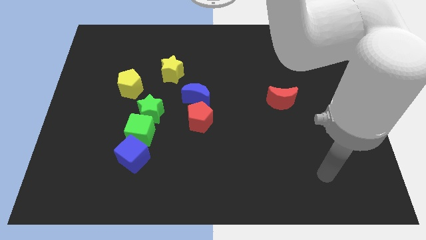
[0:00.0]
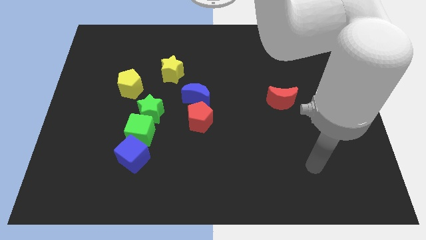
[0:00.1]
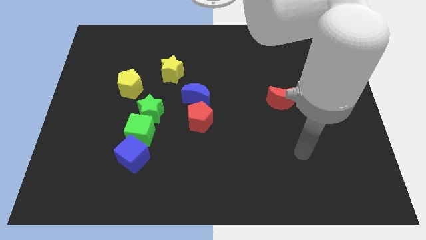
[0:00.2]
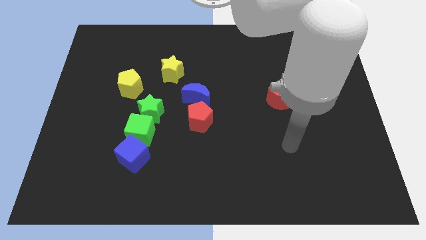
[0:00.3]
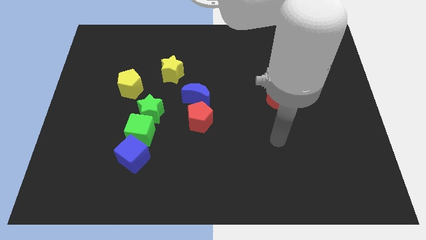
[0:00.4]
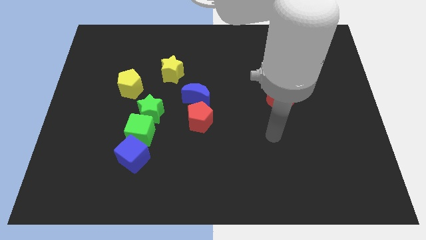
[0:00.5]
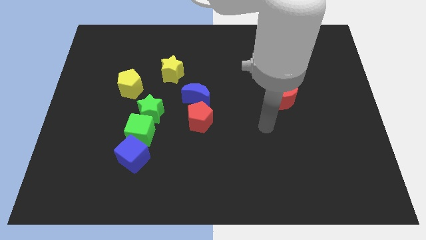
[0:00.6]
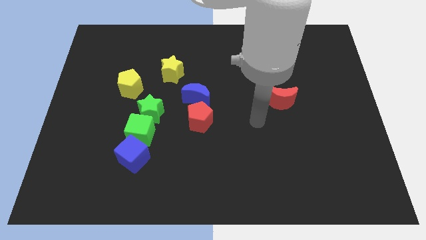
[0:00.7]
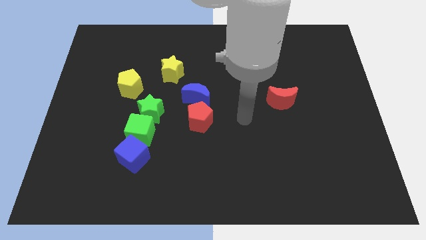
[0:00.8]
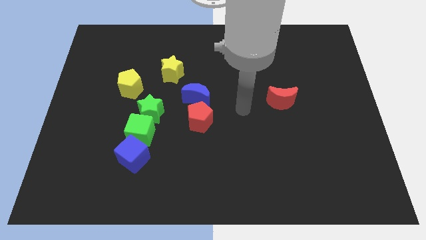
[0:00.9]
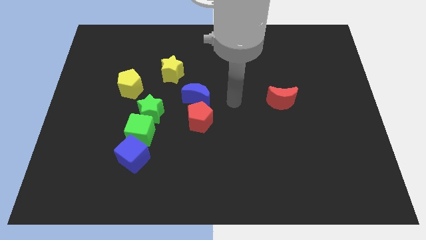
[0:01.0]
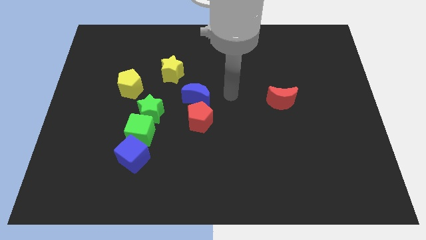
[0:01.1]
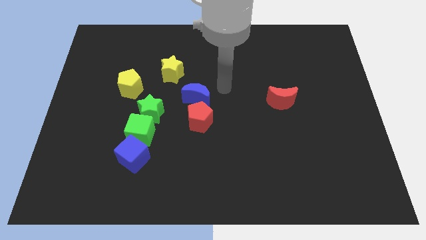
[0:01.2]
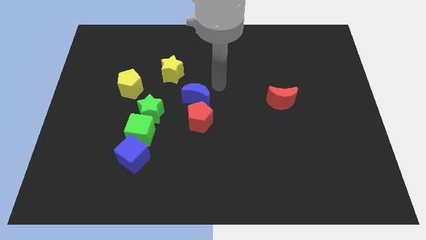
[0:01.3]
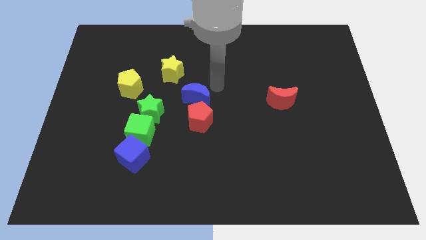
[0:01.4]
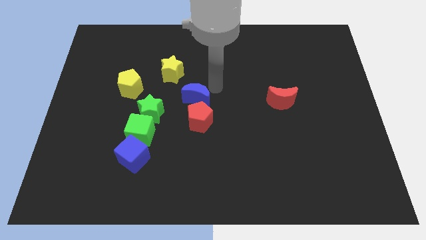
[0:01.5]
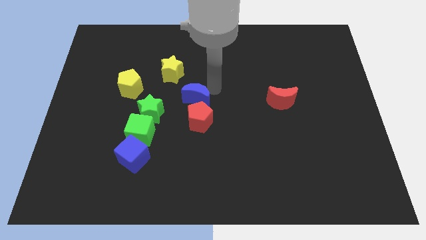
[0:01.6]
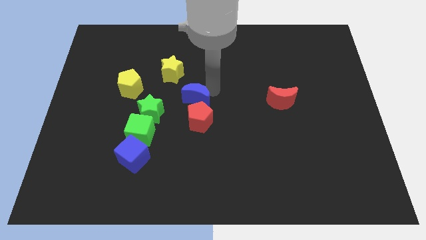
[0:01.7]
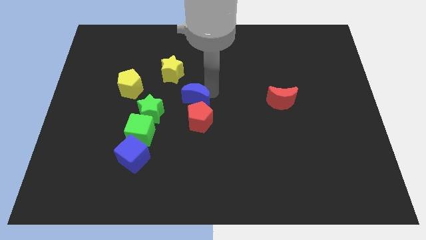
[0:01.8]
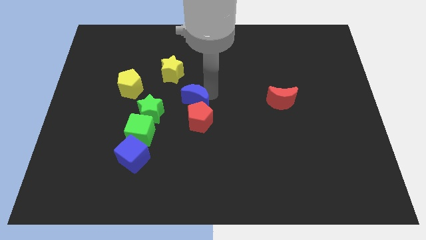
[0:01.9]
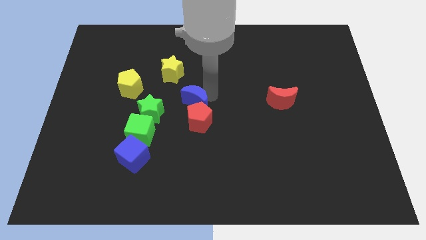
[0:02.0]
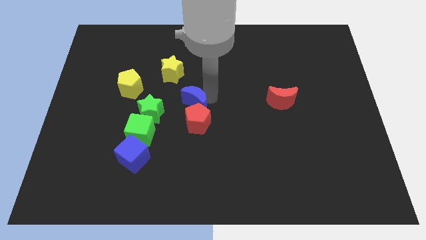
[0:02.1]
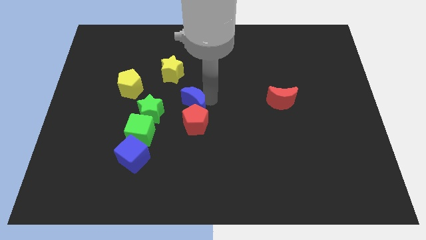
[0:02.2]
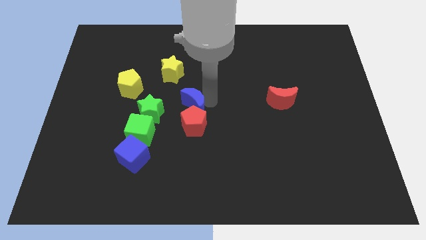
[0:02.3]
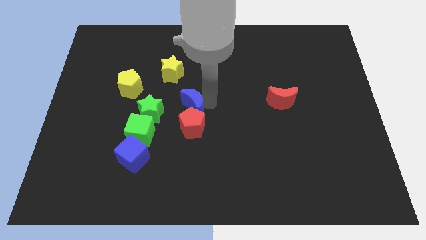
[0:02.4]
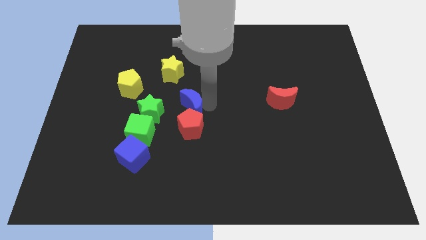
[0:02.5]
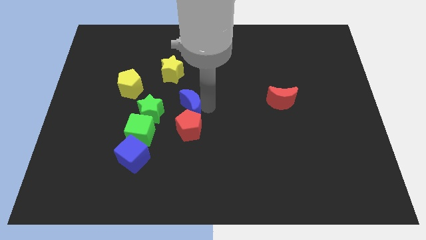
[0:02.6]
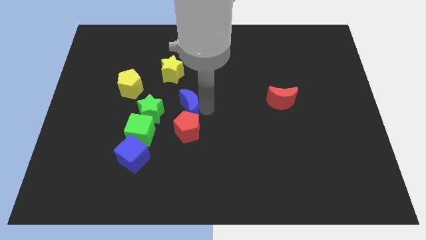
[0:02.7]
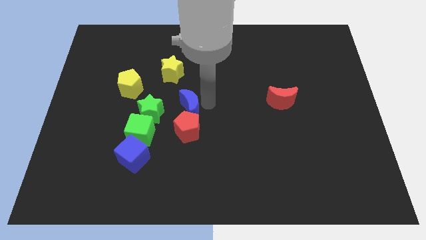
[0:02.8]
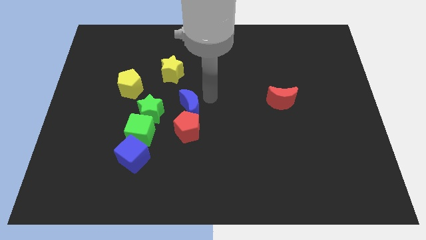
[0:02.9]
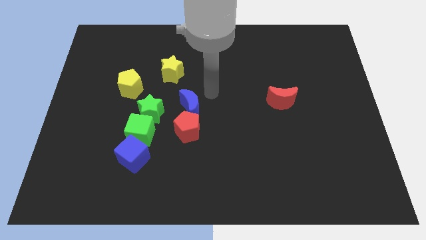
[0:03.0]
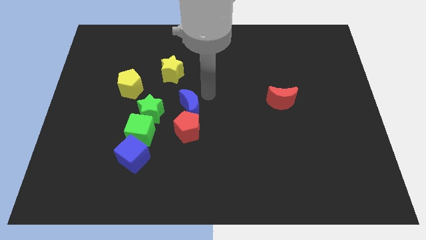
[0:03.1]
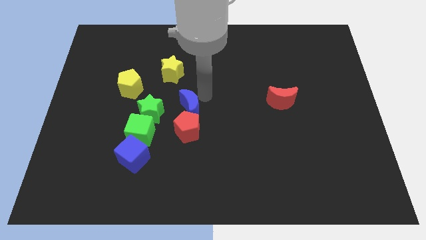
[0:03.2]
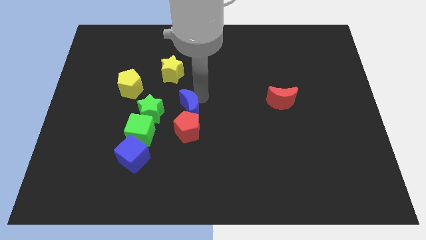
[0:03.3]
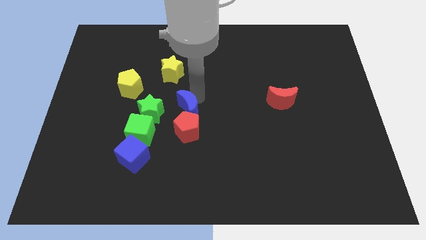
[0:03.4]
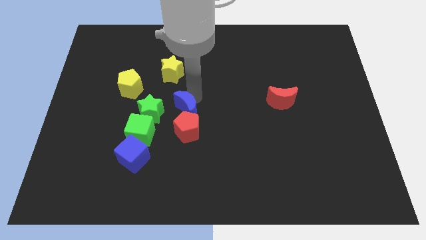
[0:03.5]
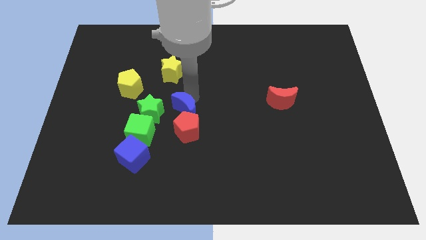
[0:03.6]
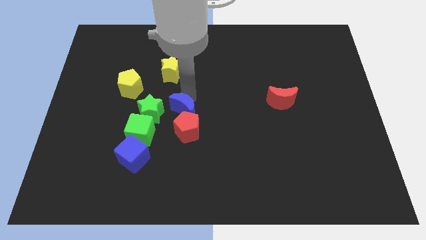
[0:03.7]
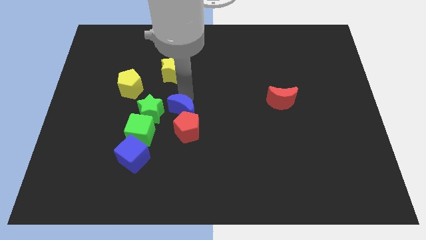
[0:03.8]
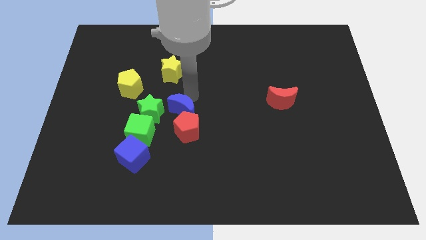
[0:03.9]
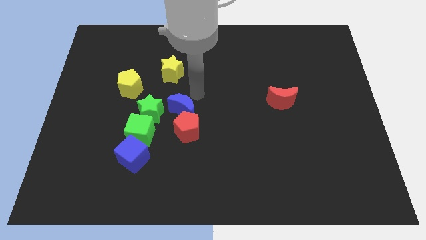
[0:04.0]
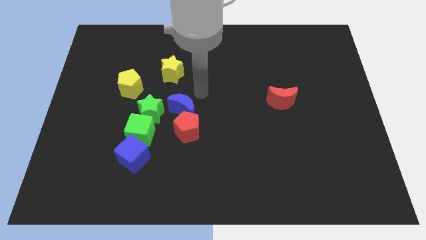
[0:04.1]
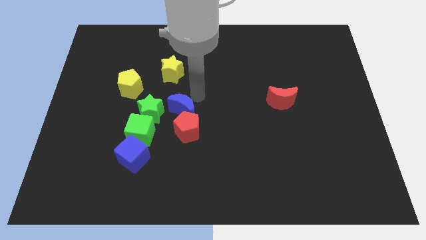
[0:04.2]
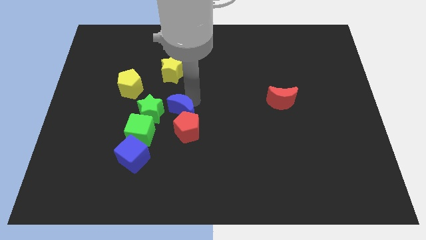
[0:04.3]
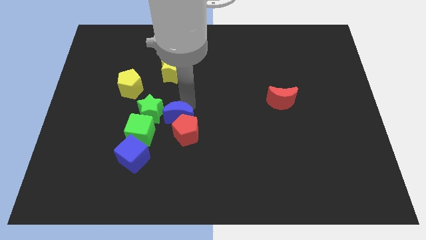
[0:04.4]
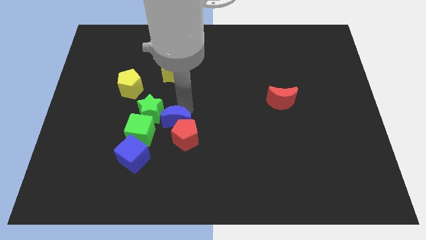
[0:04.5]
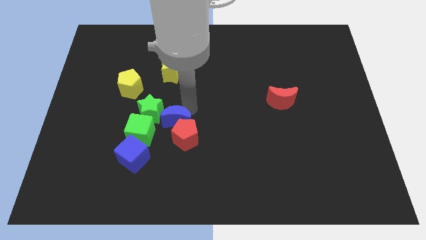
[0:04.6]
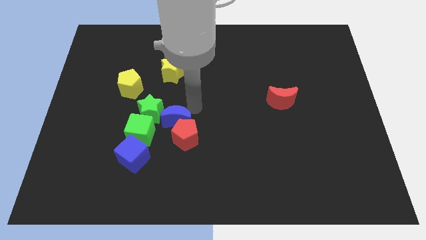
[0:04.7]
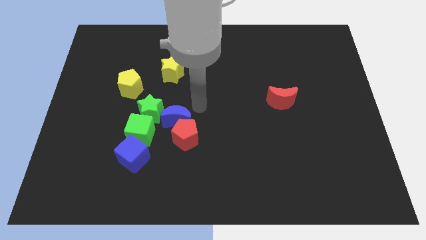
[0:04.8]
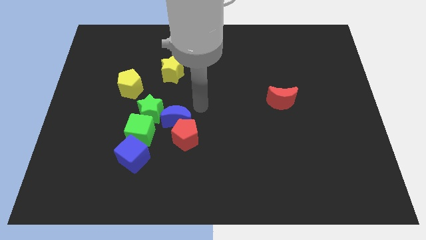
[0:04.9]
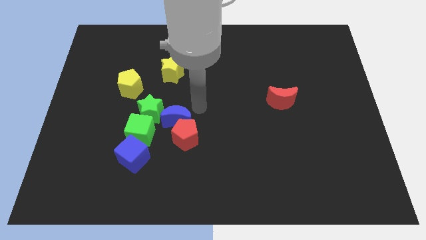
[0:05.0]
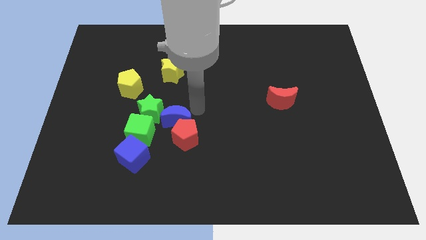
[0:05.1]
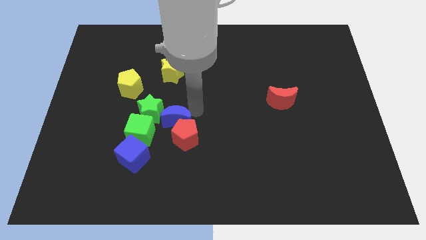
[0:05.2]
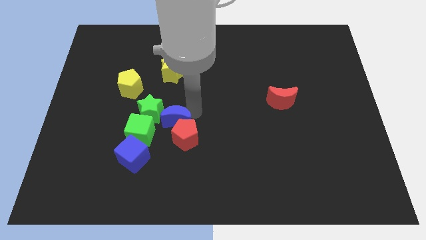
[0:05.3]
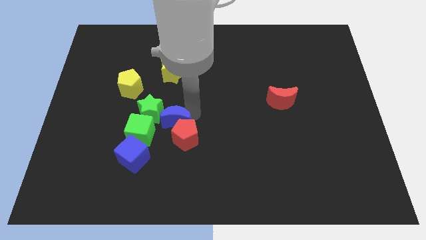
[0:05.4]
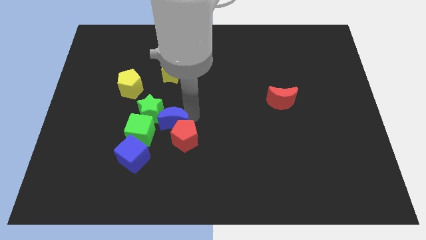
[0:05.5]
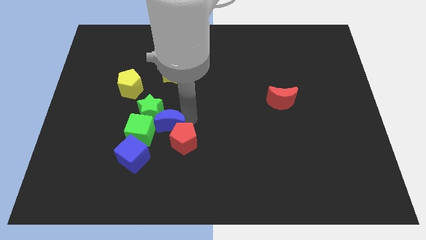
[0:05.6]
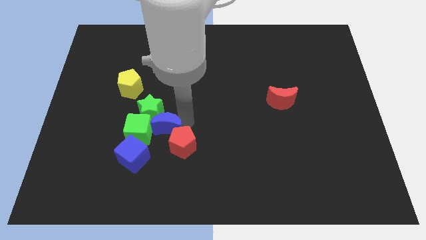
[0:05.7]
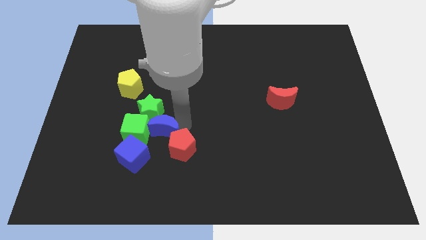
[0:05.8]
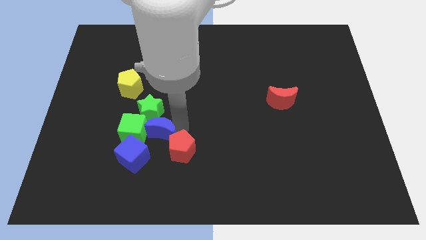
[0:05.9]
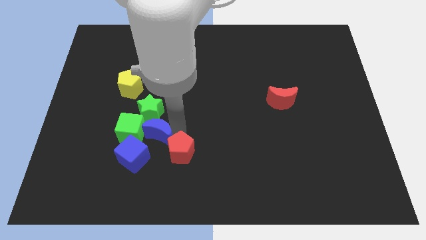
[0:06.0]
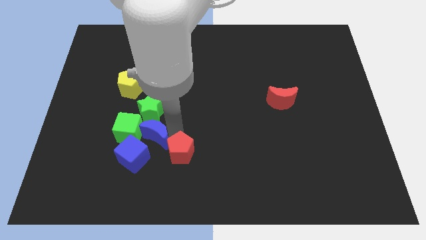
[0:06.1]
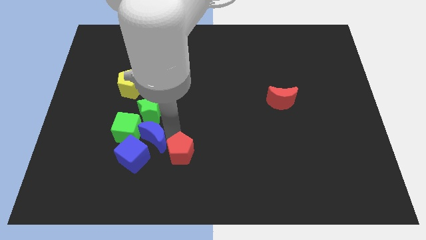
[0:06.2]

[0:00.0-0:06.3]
move the blue moon to the blue cube
